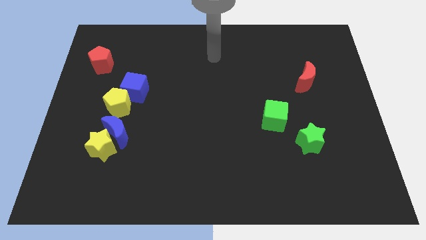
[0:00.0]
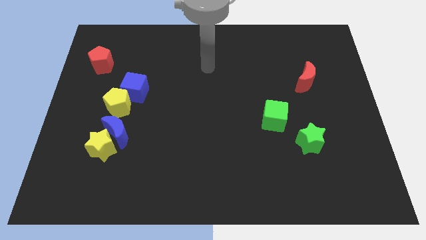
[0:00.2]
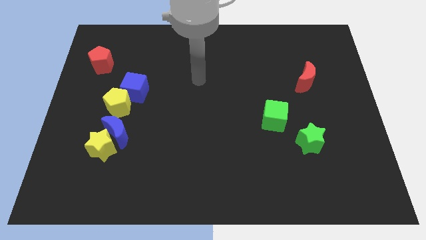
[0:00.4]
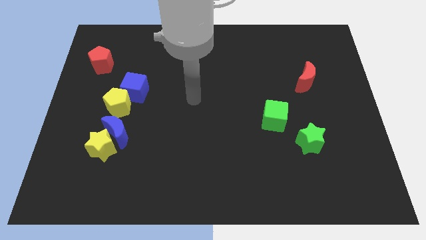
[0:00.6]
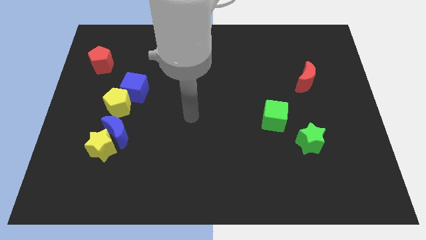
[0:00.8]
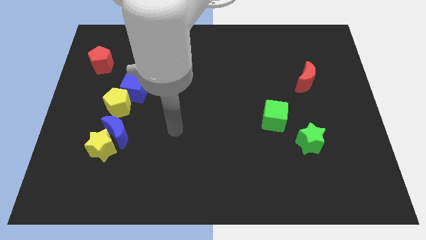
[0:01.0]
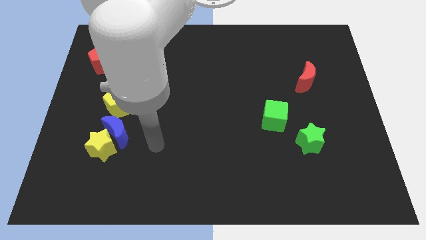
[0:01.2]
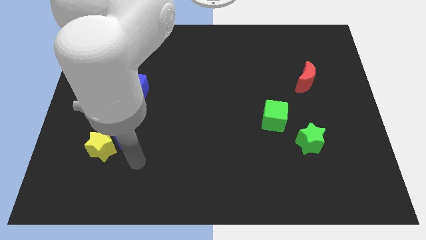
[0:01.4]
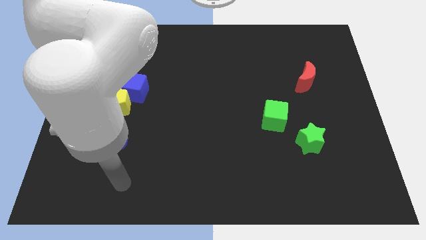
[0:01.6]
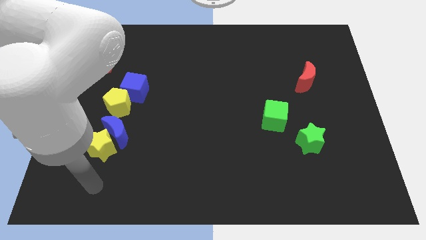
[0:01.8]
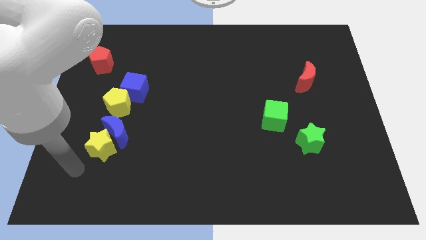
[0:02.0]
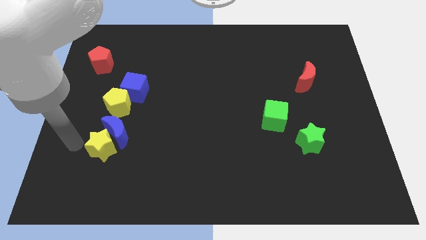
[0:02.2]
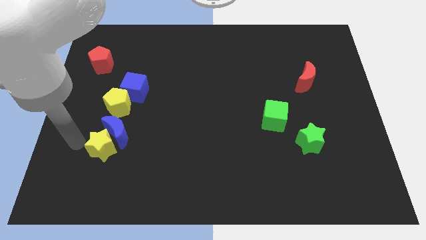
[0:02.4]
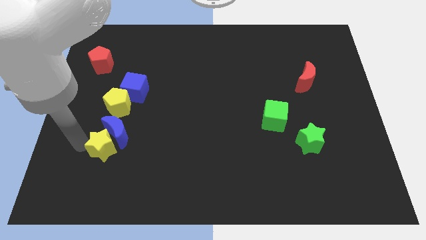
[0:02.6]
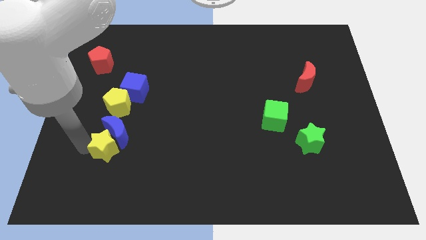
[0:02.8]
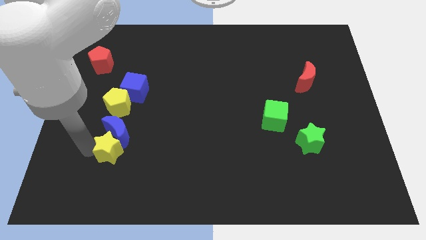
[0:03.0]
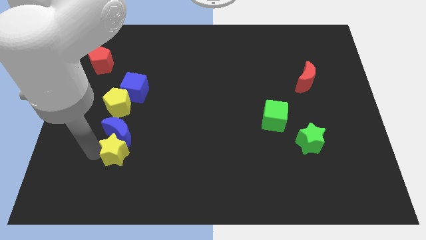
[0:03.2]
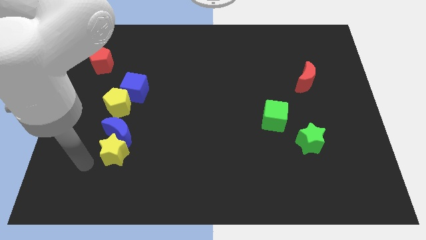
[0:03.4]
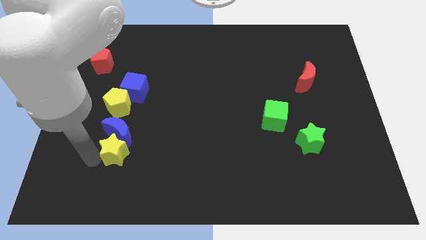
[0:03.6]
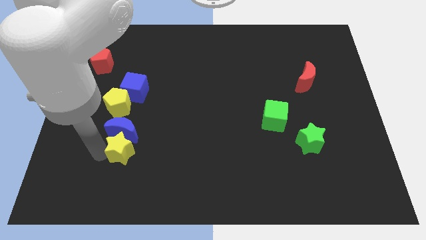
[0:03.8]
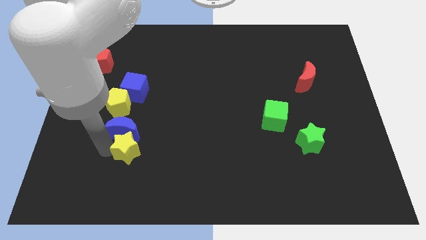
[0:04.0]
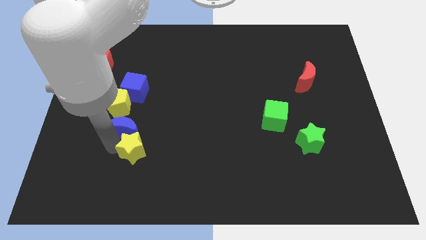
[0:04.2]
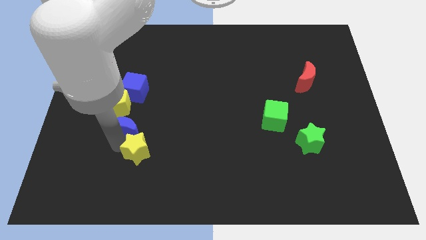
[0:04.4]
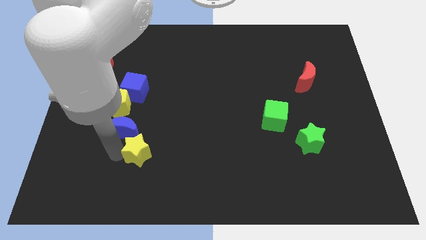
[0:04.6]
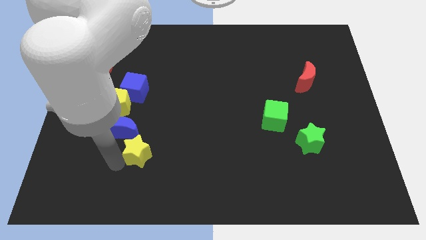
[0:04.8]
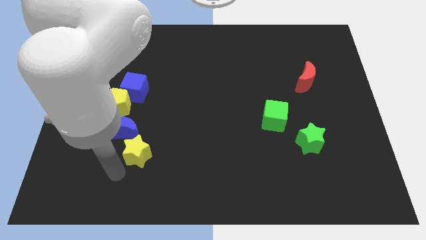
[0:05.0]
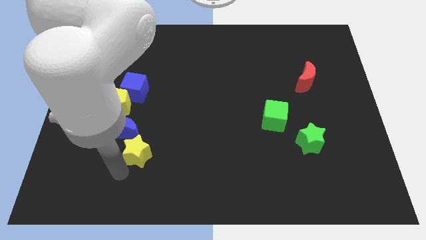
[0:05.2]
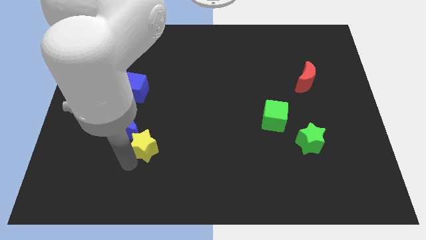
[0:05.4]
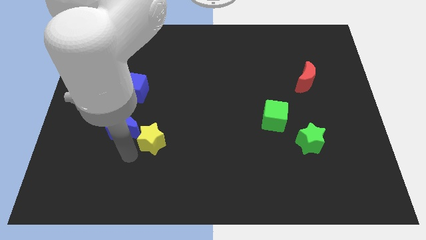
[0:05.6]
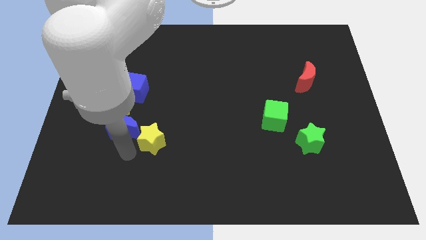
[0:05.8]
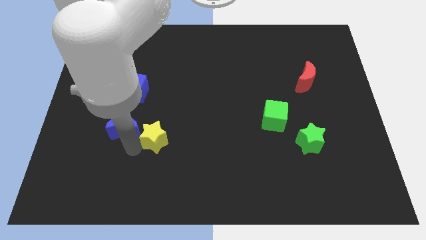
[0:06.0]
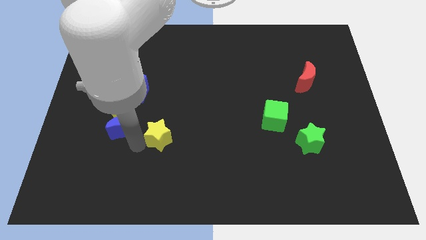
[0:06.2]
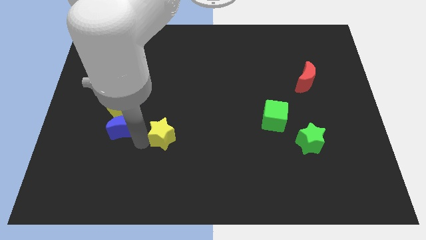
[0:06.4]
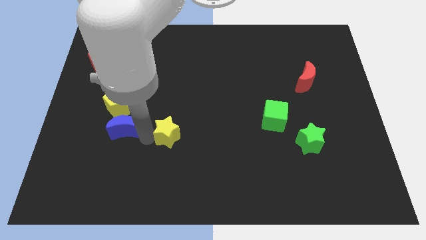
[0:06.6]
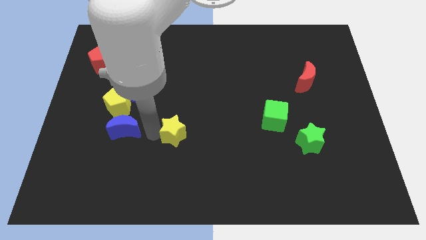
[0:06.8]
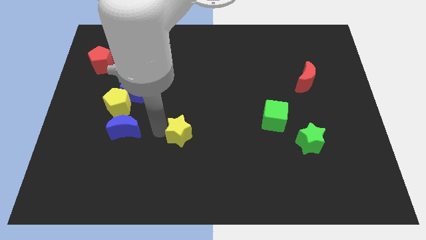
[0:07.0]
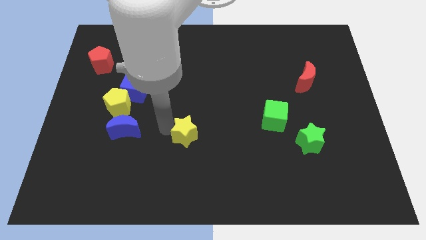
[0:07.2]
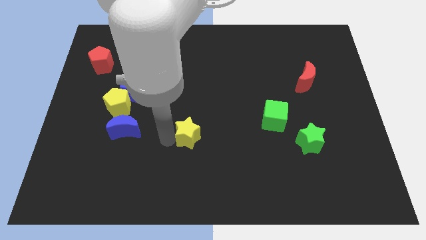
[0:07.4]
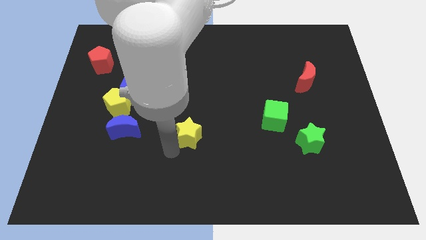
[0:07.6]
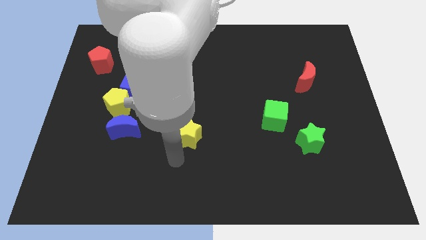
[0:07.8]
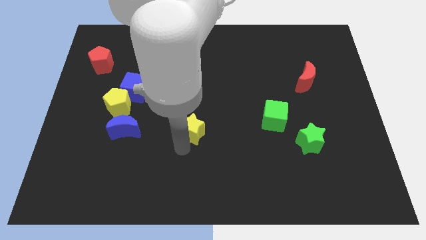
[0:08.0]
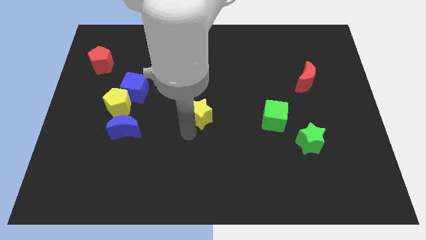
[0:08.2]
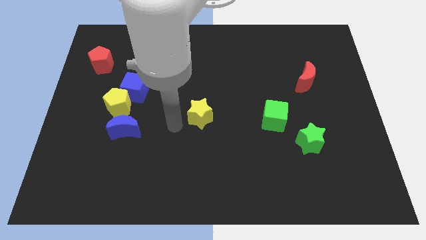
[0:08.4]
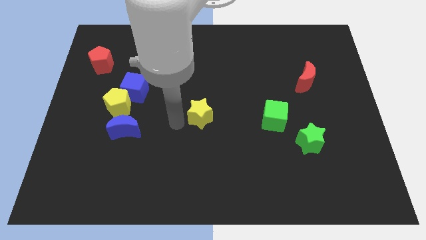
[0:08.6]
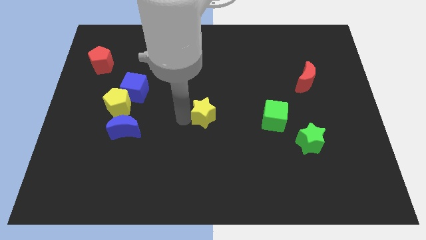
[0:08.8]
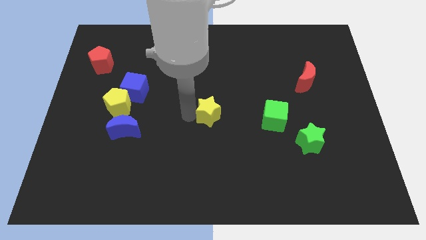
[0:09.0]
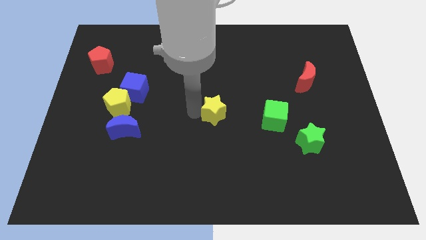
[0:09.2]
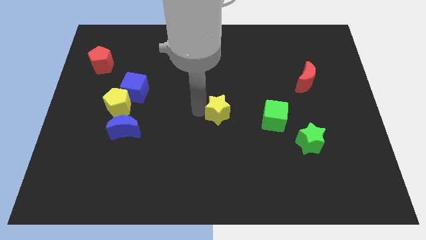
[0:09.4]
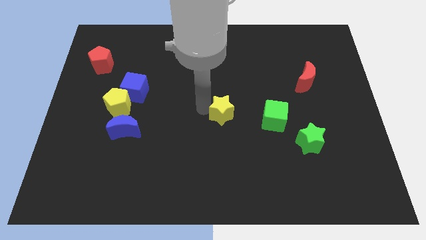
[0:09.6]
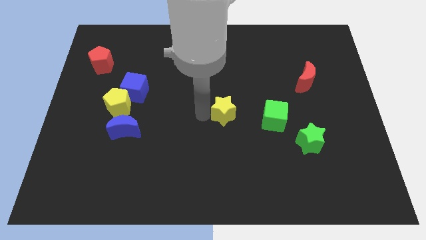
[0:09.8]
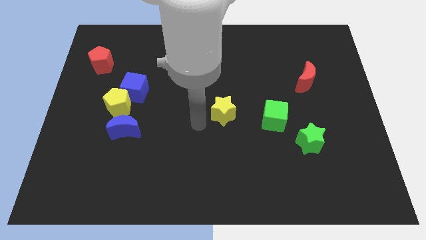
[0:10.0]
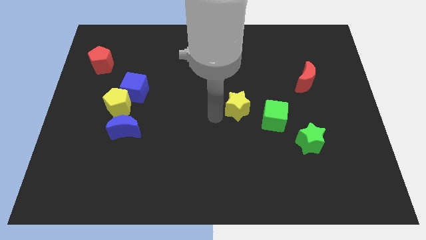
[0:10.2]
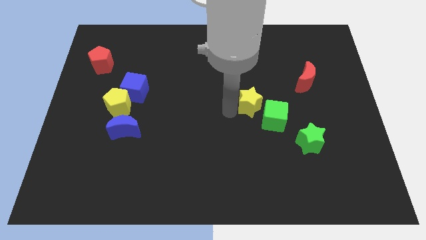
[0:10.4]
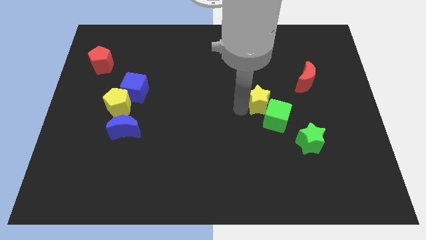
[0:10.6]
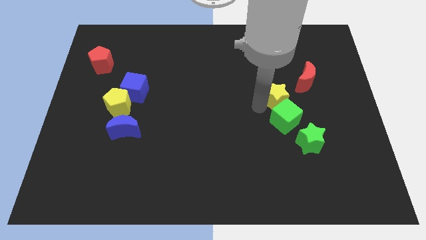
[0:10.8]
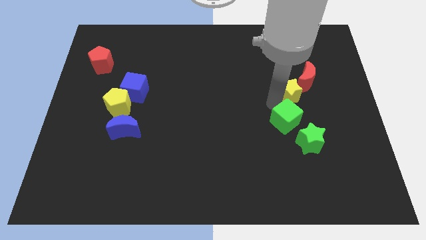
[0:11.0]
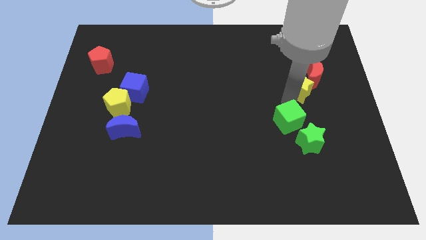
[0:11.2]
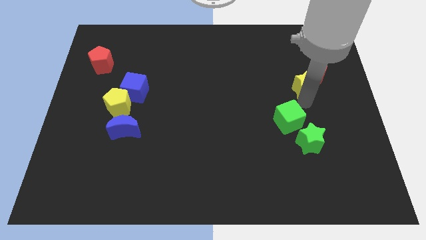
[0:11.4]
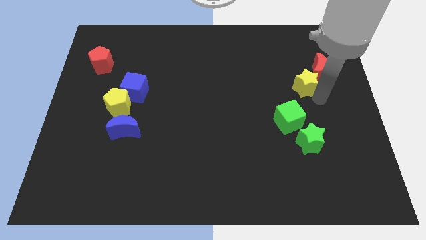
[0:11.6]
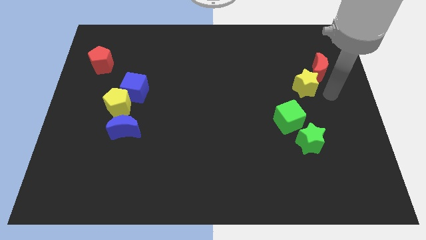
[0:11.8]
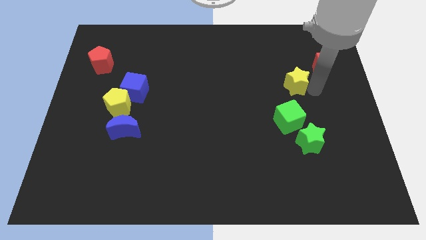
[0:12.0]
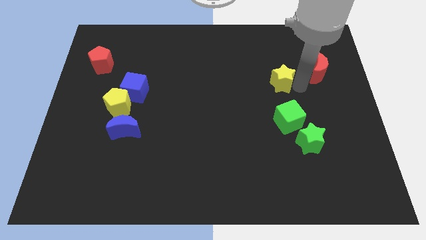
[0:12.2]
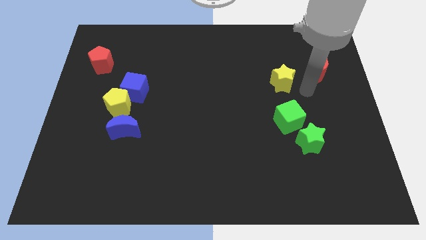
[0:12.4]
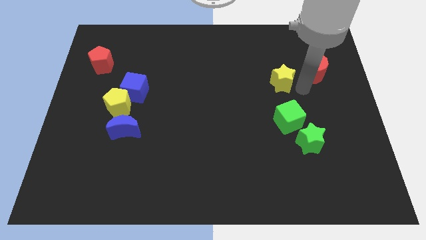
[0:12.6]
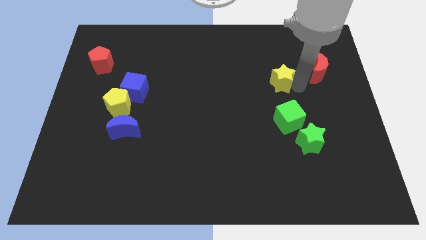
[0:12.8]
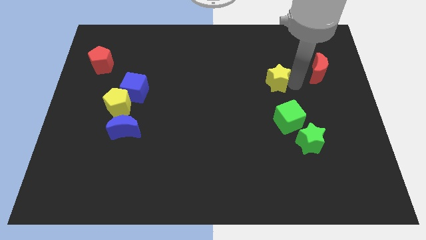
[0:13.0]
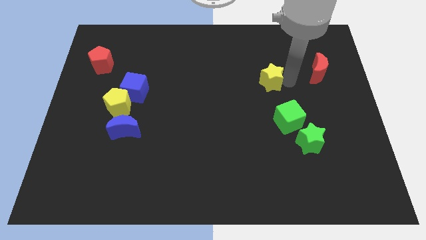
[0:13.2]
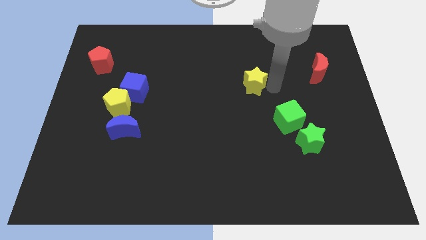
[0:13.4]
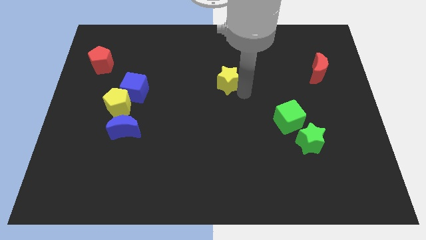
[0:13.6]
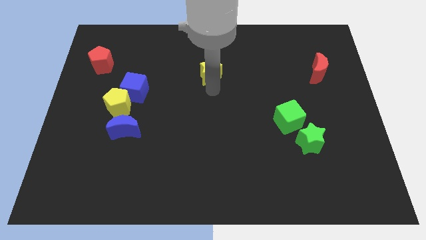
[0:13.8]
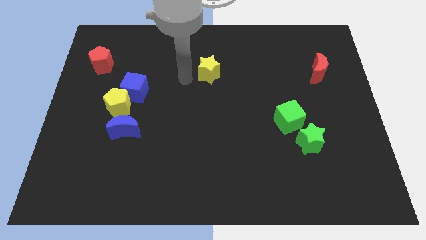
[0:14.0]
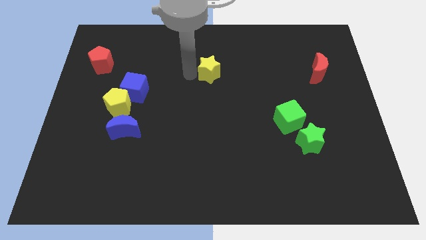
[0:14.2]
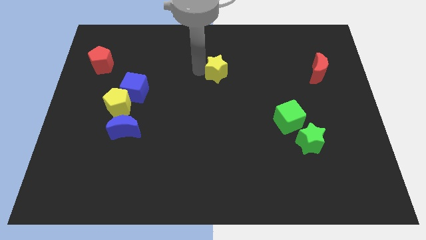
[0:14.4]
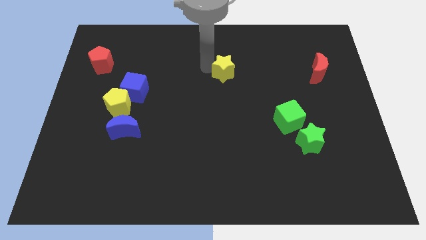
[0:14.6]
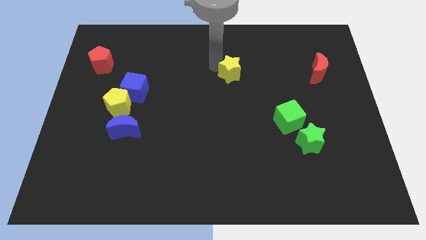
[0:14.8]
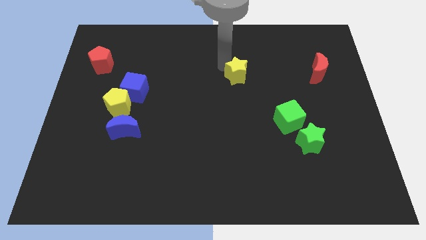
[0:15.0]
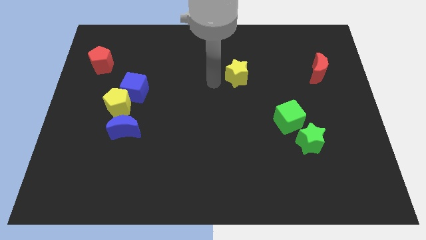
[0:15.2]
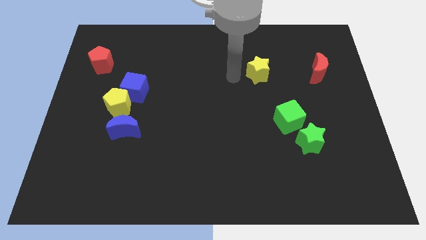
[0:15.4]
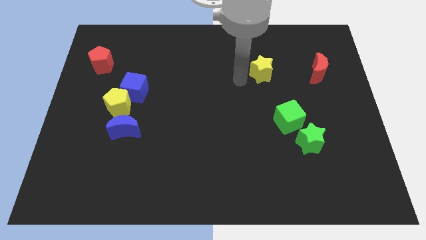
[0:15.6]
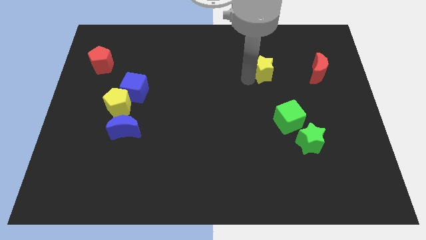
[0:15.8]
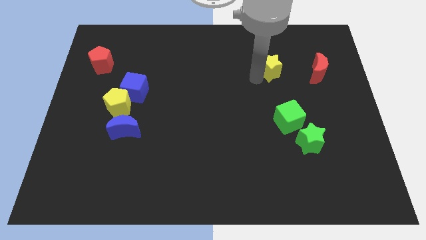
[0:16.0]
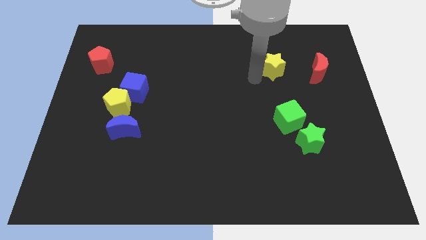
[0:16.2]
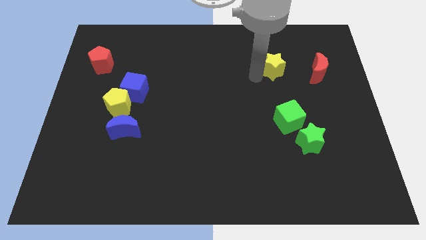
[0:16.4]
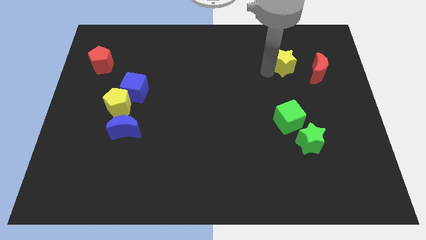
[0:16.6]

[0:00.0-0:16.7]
push the yellow star diagonally up and to the left of the red moon
